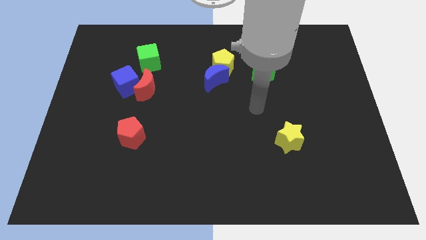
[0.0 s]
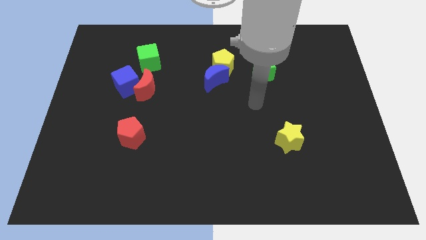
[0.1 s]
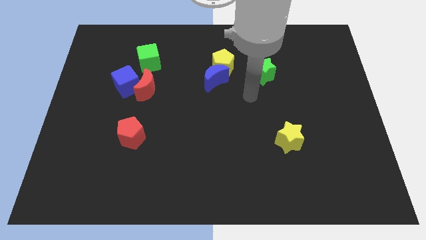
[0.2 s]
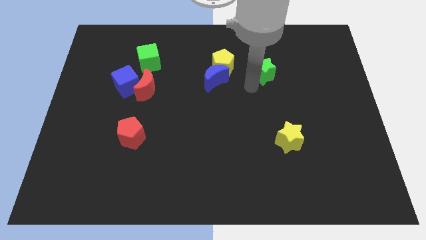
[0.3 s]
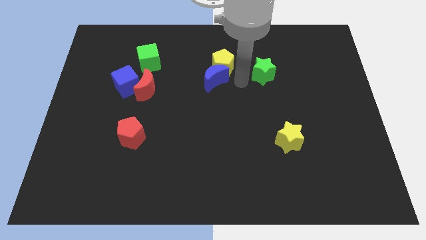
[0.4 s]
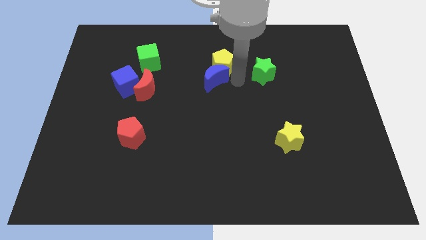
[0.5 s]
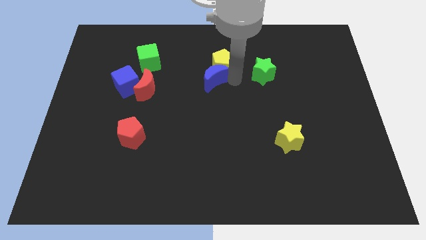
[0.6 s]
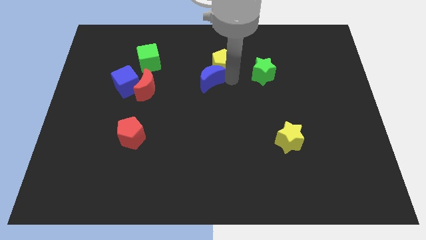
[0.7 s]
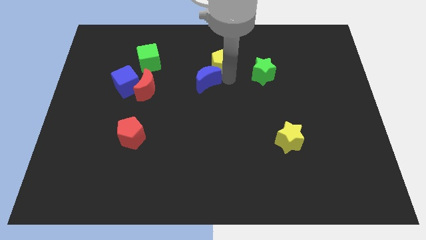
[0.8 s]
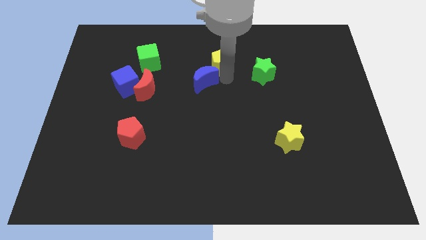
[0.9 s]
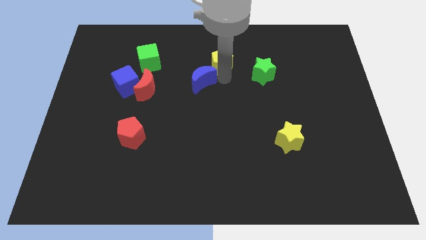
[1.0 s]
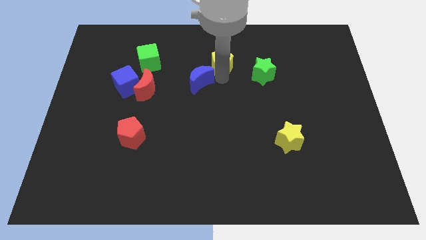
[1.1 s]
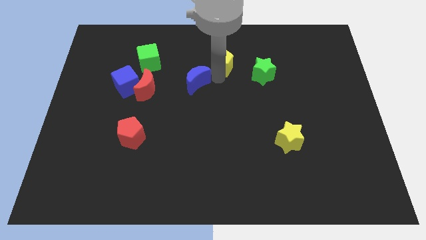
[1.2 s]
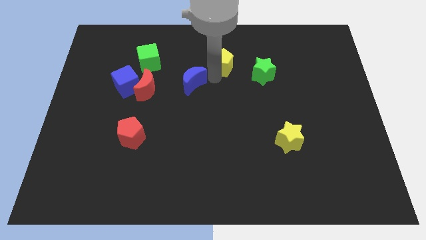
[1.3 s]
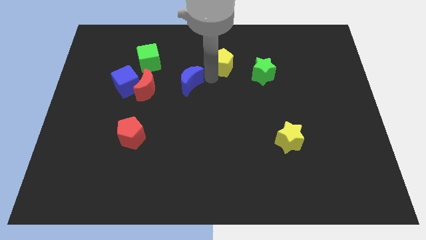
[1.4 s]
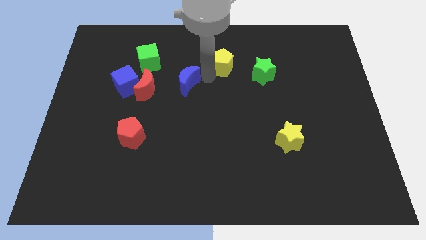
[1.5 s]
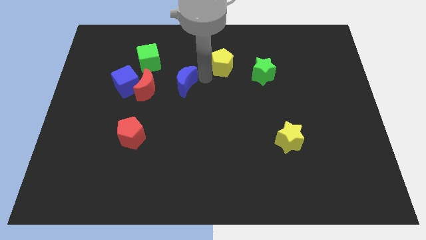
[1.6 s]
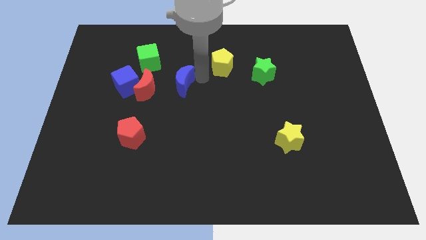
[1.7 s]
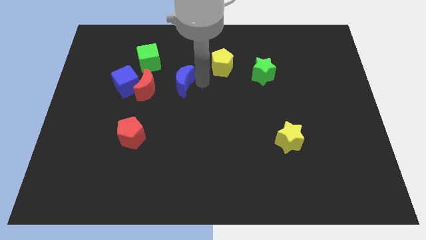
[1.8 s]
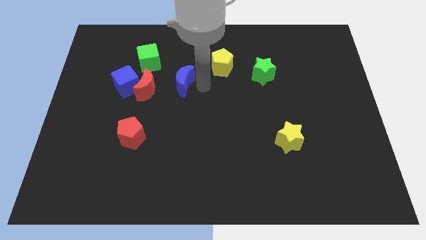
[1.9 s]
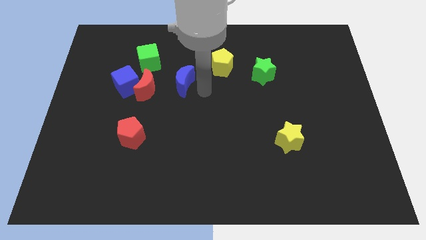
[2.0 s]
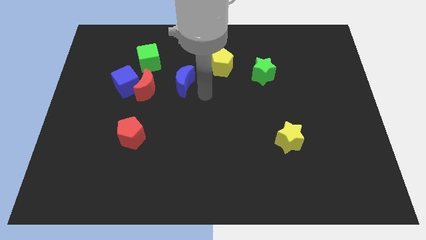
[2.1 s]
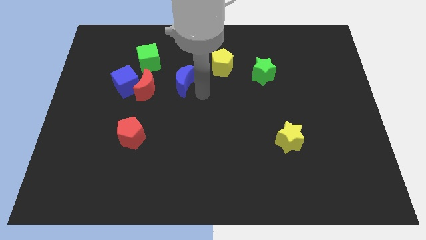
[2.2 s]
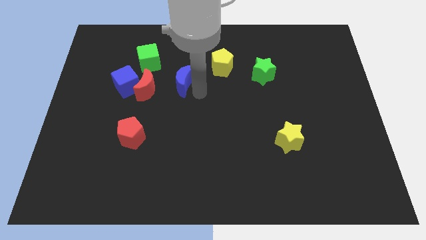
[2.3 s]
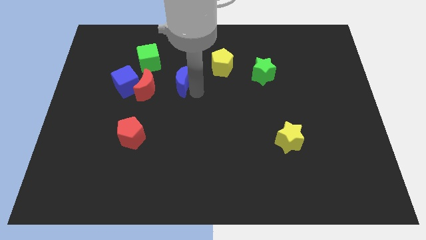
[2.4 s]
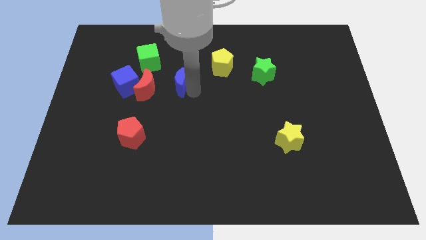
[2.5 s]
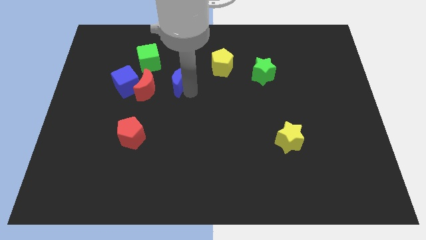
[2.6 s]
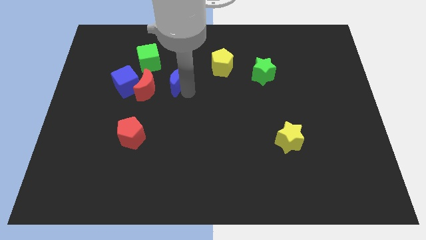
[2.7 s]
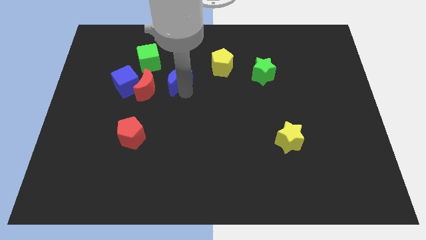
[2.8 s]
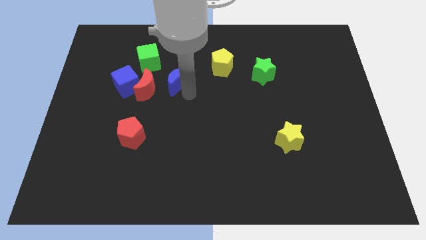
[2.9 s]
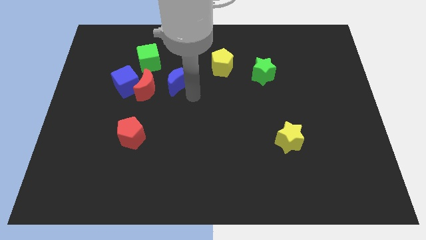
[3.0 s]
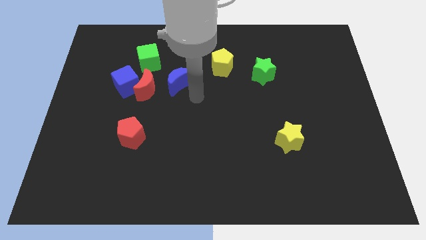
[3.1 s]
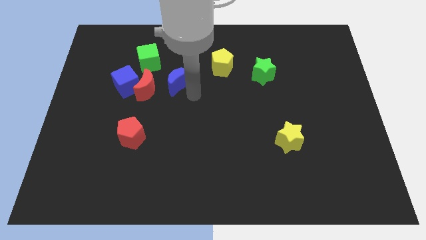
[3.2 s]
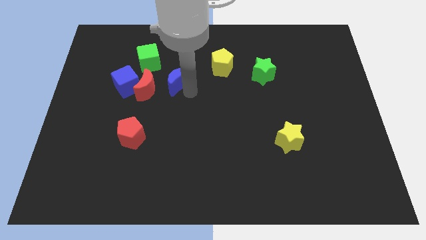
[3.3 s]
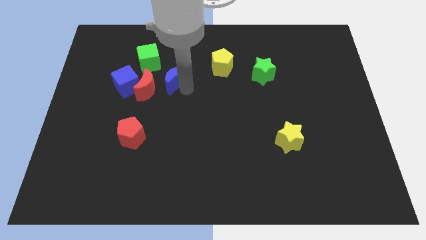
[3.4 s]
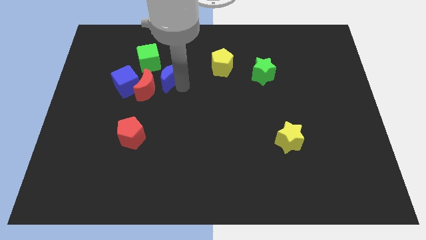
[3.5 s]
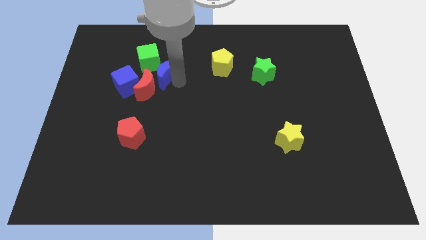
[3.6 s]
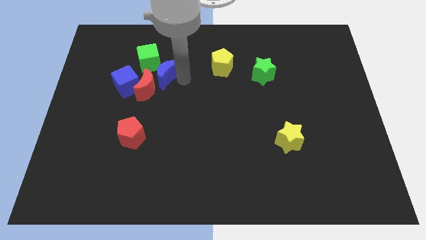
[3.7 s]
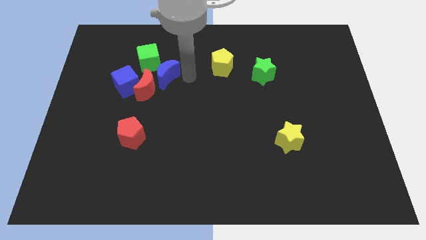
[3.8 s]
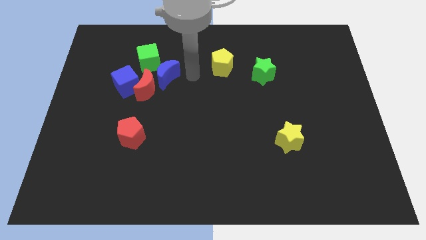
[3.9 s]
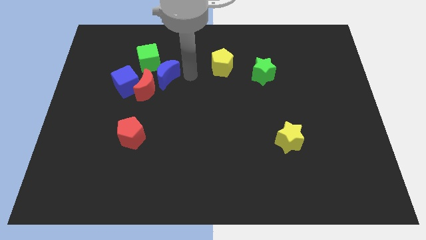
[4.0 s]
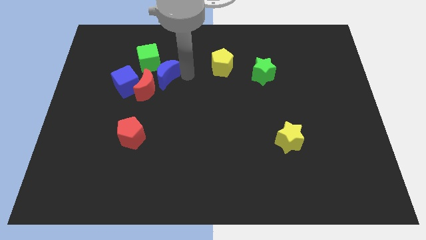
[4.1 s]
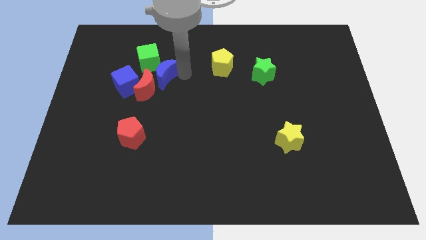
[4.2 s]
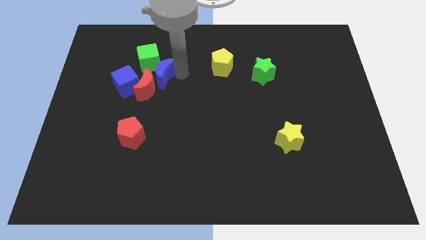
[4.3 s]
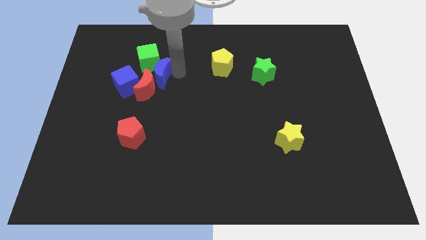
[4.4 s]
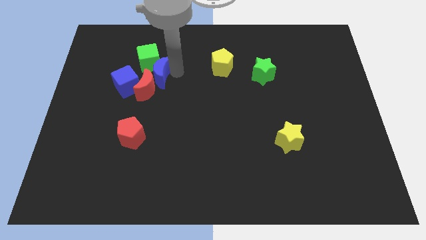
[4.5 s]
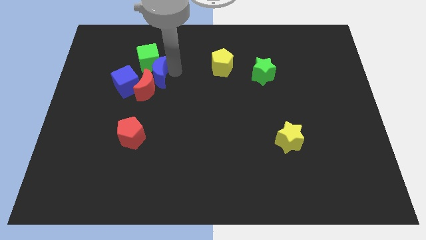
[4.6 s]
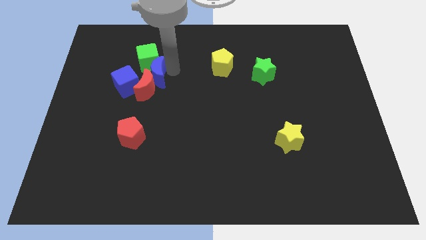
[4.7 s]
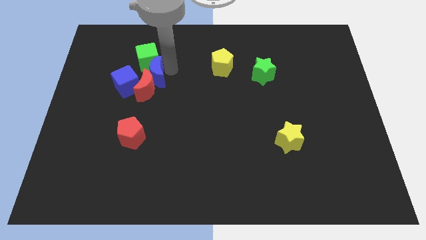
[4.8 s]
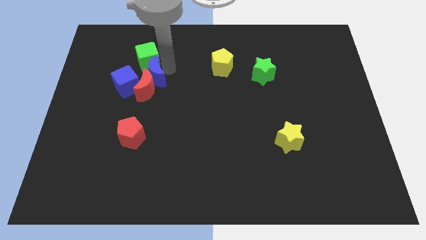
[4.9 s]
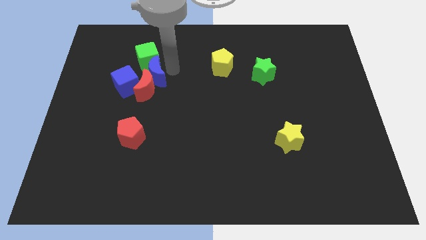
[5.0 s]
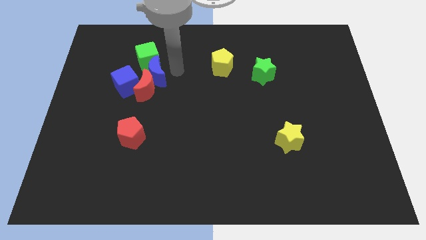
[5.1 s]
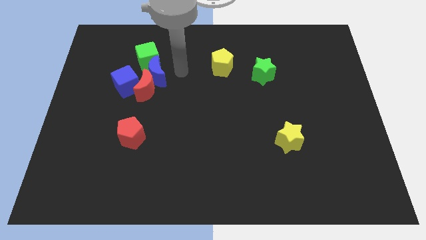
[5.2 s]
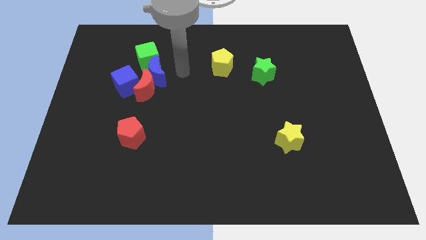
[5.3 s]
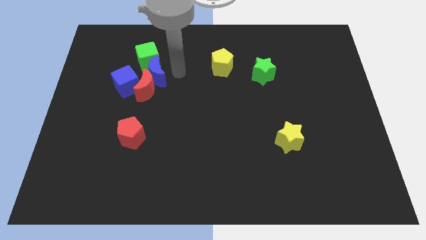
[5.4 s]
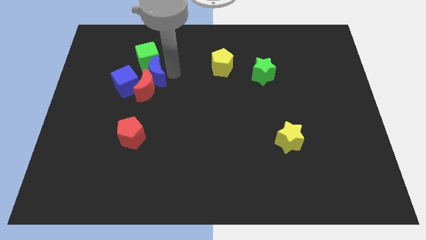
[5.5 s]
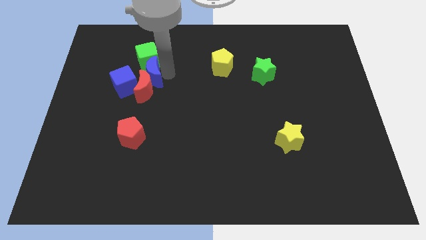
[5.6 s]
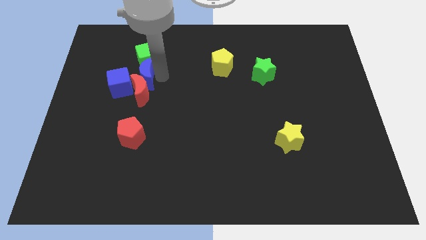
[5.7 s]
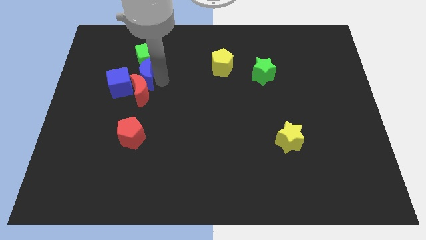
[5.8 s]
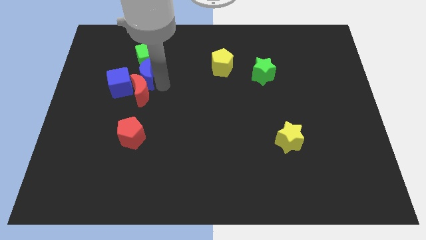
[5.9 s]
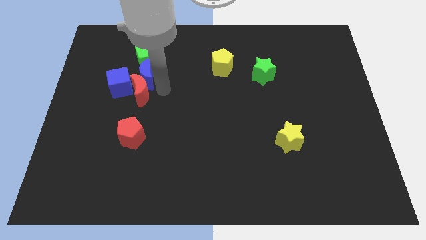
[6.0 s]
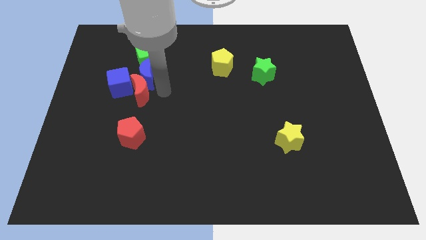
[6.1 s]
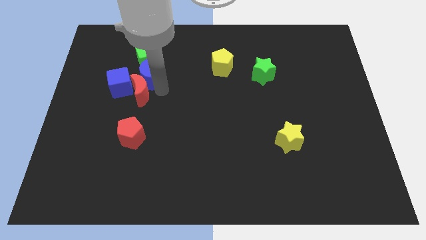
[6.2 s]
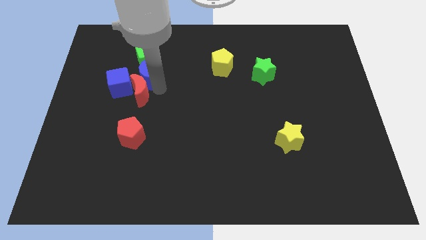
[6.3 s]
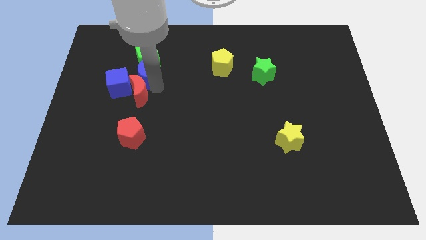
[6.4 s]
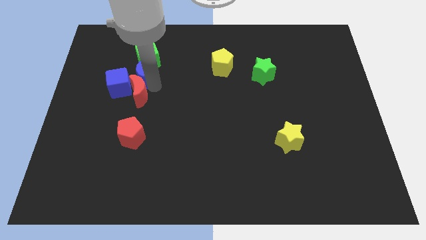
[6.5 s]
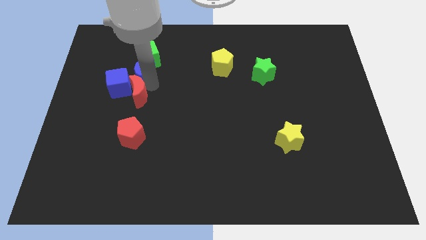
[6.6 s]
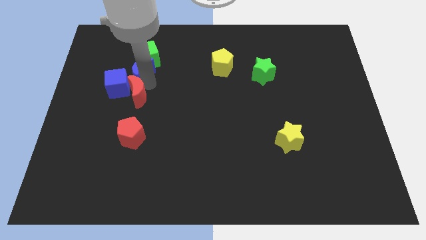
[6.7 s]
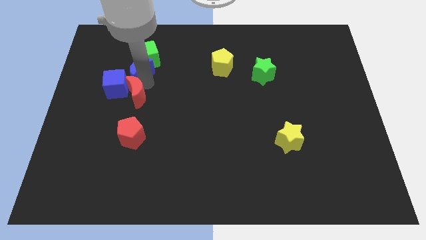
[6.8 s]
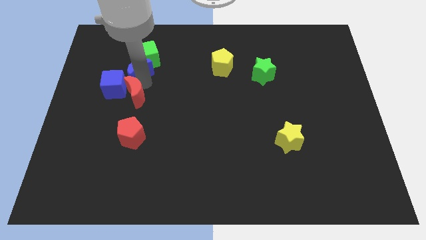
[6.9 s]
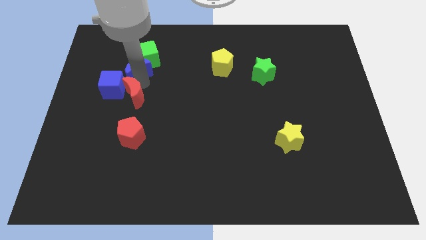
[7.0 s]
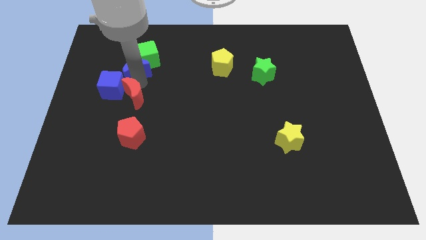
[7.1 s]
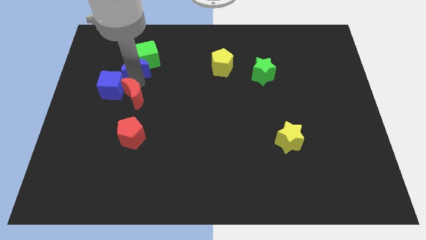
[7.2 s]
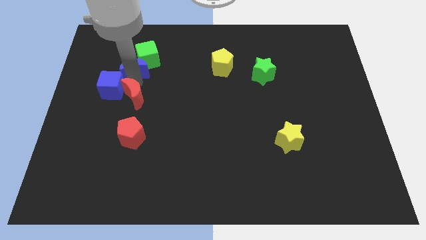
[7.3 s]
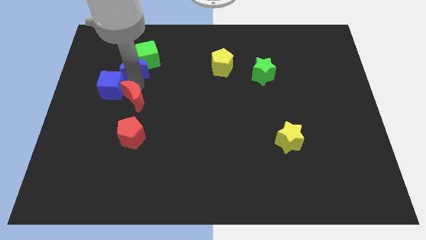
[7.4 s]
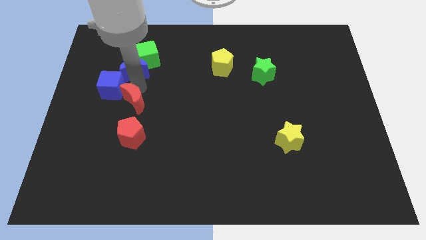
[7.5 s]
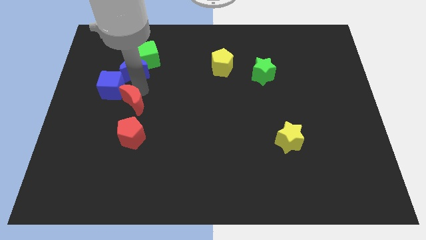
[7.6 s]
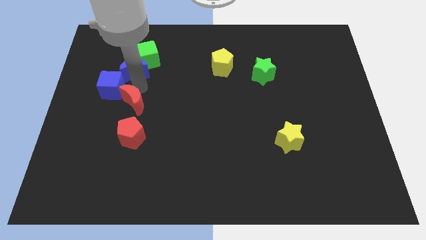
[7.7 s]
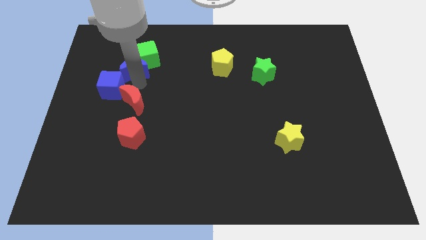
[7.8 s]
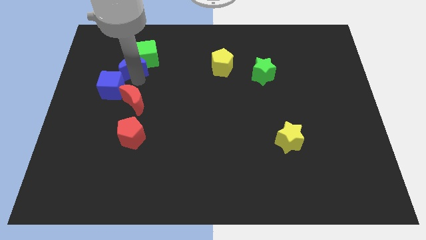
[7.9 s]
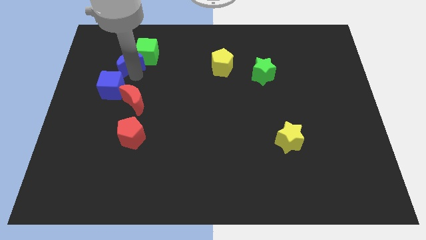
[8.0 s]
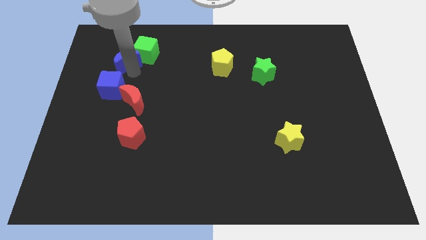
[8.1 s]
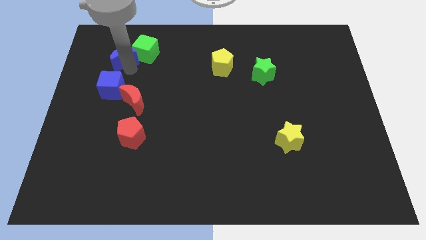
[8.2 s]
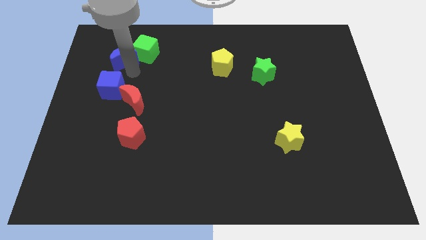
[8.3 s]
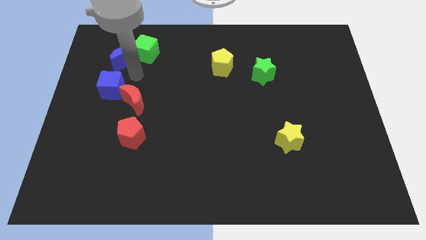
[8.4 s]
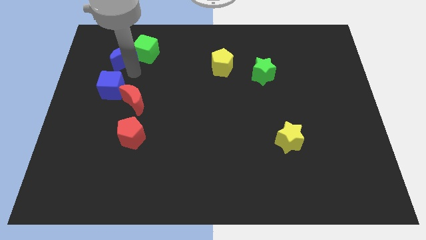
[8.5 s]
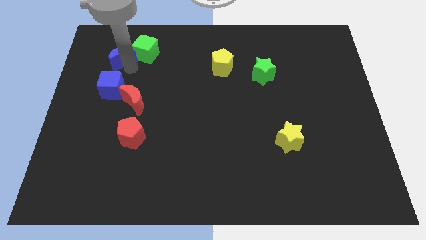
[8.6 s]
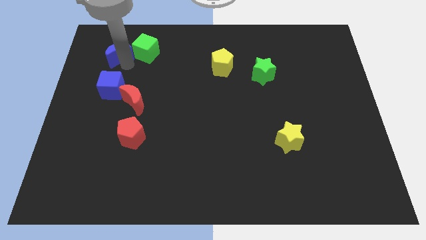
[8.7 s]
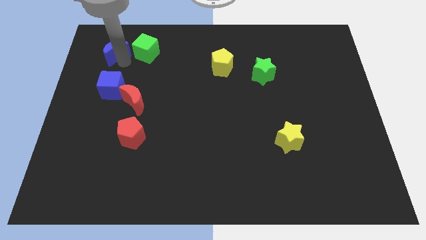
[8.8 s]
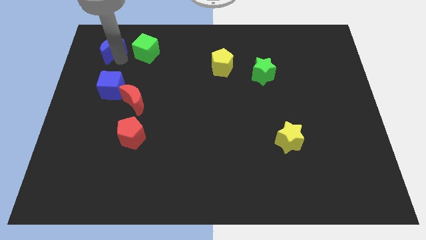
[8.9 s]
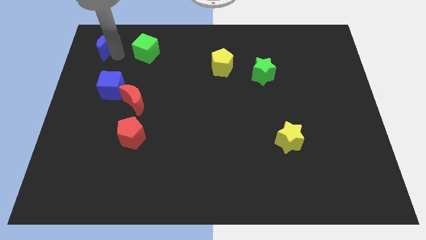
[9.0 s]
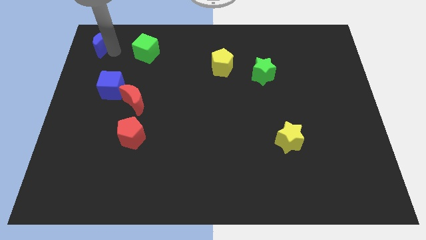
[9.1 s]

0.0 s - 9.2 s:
slide the blue moon to the top left corner
